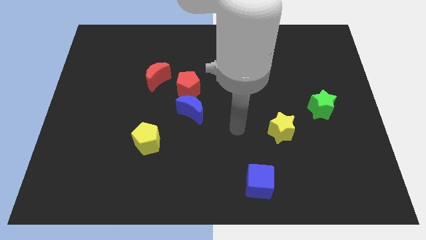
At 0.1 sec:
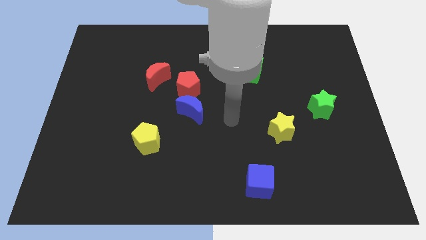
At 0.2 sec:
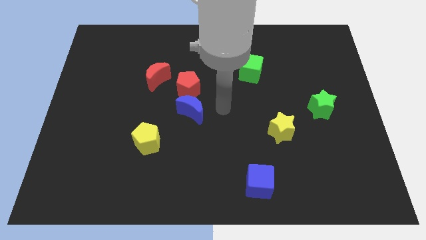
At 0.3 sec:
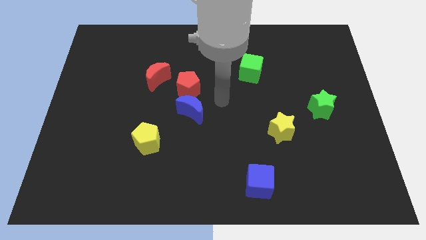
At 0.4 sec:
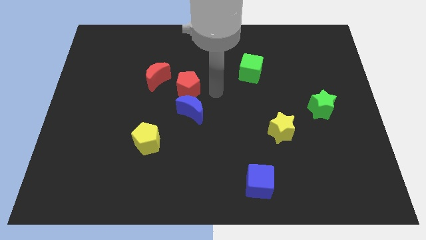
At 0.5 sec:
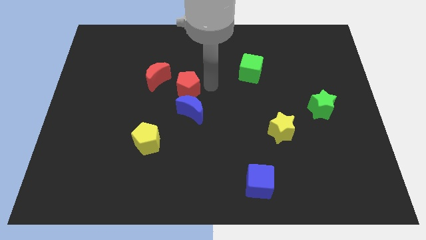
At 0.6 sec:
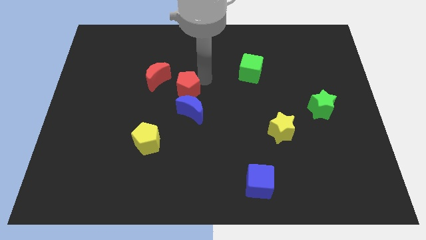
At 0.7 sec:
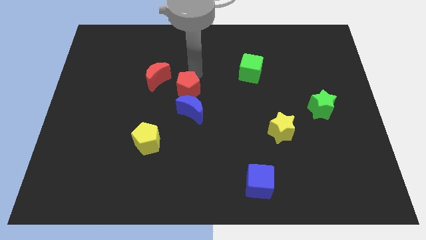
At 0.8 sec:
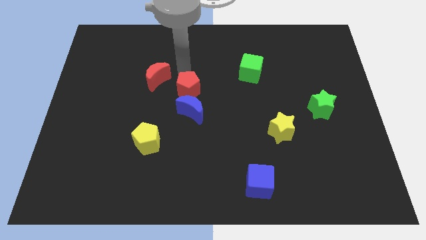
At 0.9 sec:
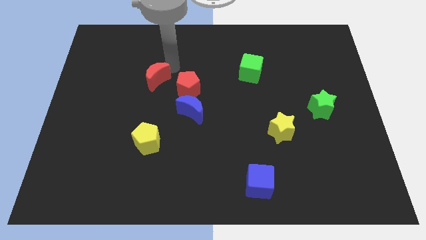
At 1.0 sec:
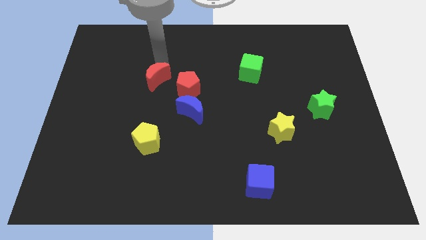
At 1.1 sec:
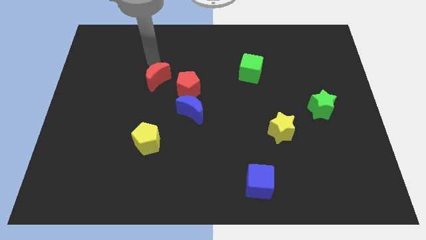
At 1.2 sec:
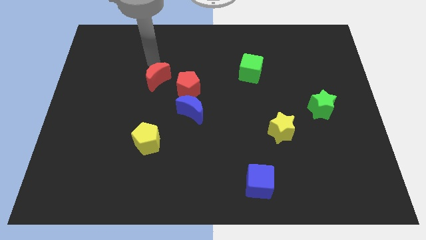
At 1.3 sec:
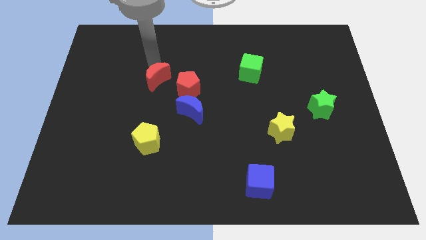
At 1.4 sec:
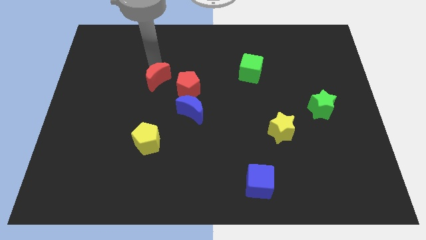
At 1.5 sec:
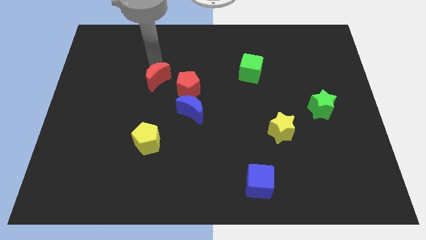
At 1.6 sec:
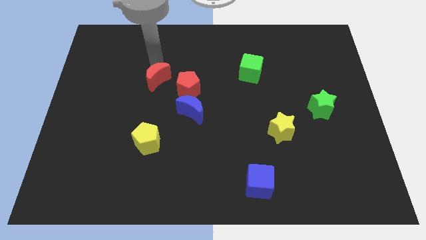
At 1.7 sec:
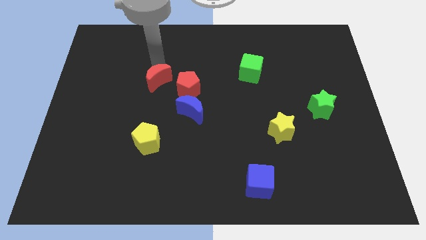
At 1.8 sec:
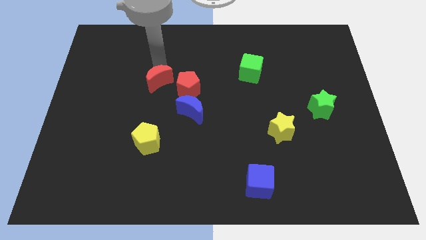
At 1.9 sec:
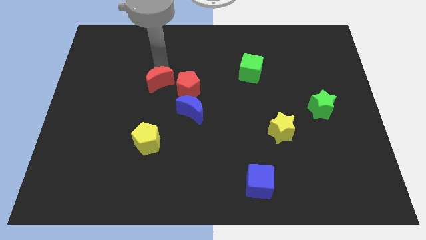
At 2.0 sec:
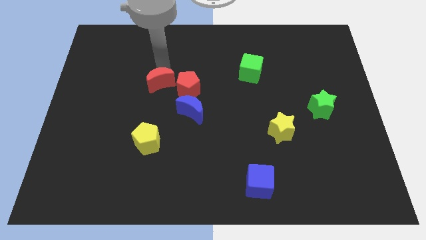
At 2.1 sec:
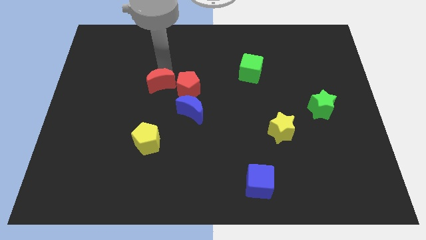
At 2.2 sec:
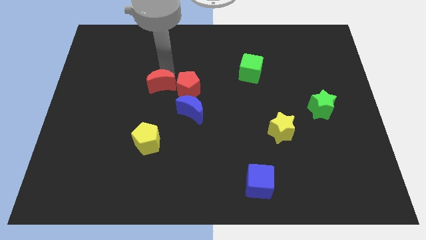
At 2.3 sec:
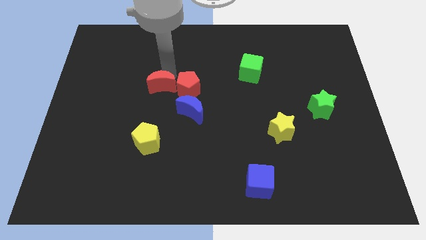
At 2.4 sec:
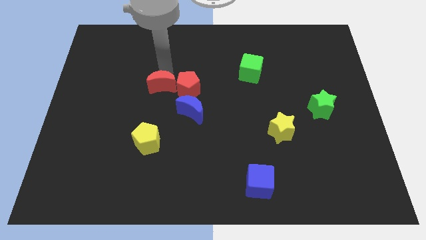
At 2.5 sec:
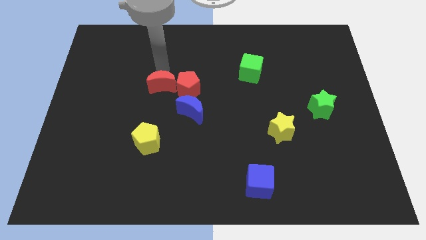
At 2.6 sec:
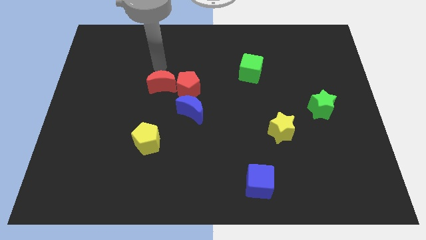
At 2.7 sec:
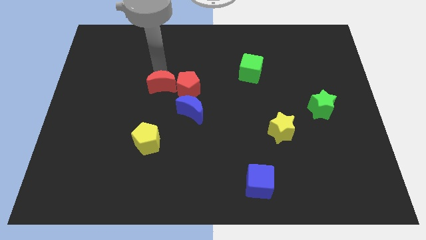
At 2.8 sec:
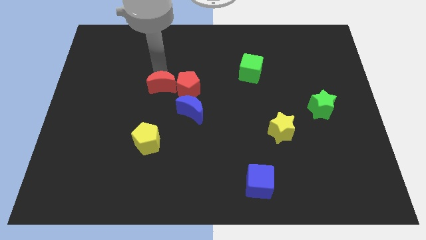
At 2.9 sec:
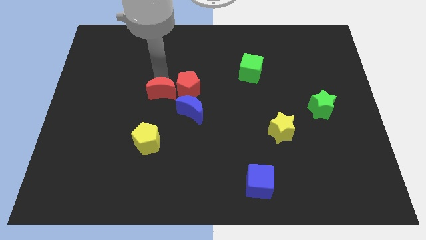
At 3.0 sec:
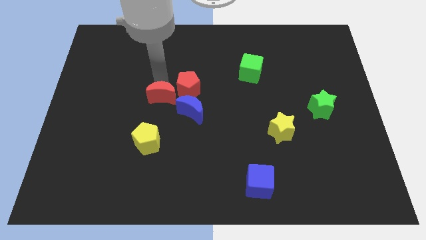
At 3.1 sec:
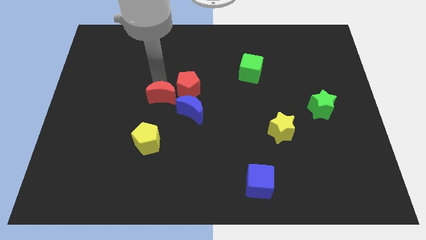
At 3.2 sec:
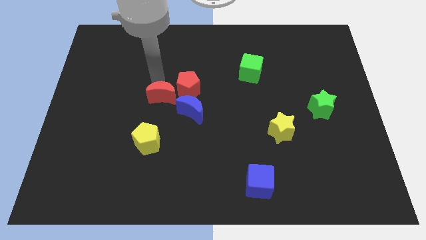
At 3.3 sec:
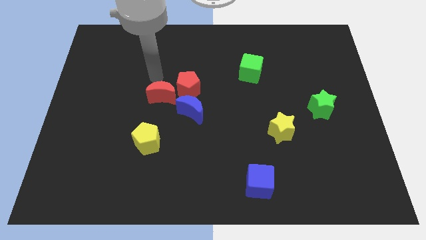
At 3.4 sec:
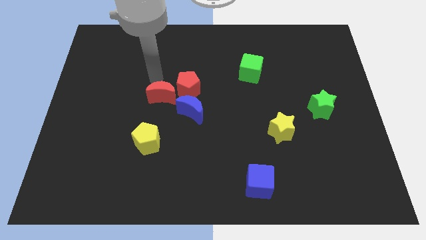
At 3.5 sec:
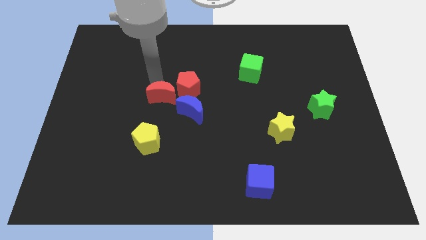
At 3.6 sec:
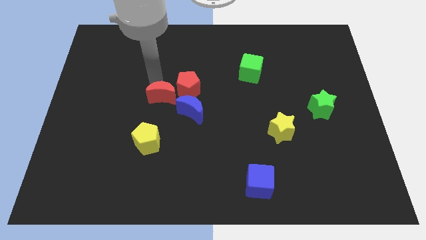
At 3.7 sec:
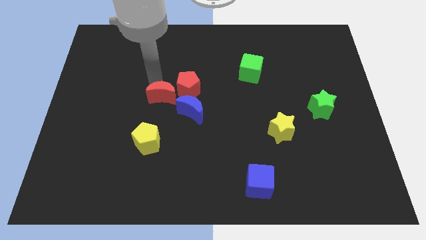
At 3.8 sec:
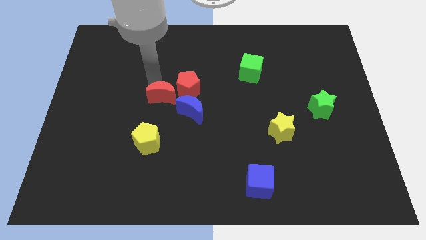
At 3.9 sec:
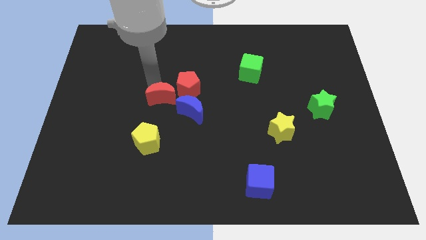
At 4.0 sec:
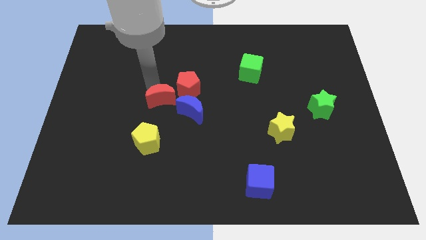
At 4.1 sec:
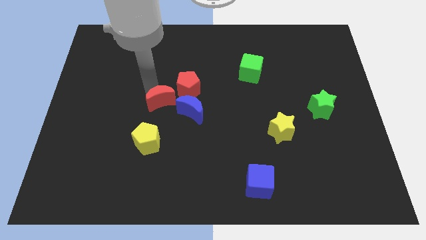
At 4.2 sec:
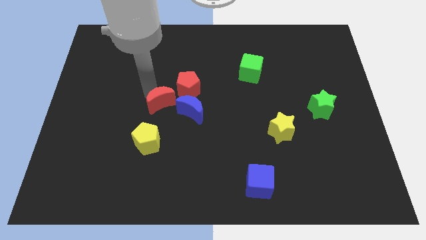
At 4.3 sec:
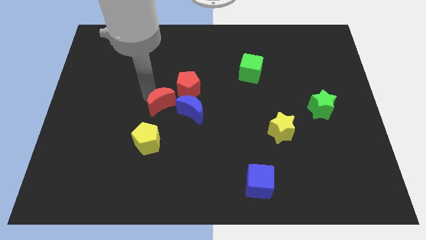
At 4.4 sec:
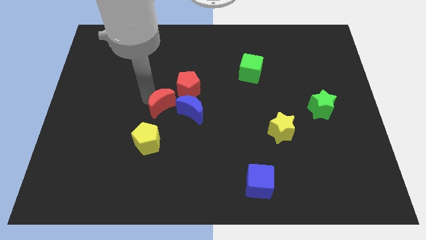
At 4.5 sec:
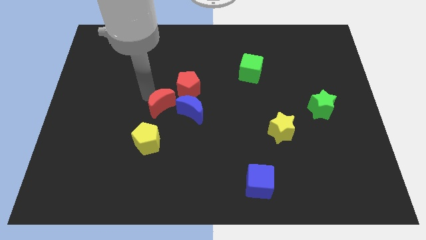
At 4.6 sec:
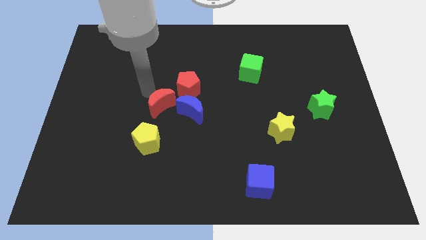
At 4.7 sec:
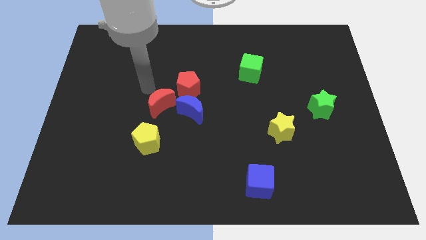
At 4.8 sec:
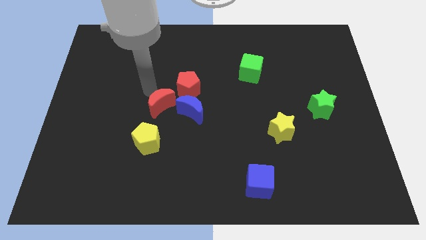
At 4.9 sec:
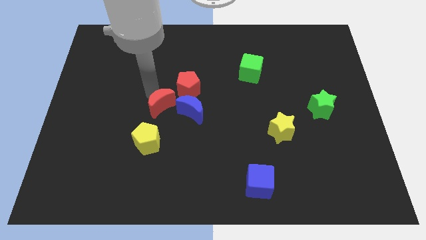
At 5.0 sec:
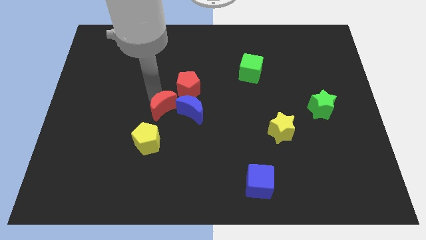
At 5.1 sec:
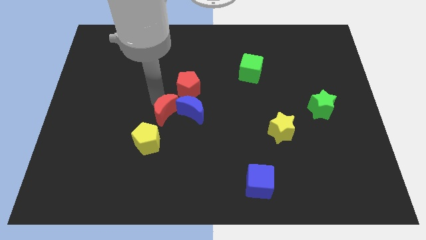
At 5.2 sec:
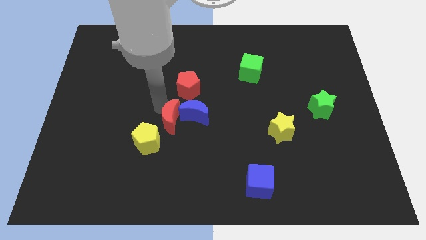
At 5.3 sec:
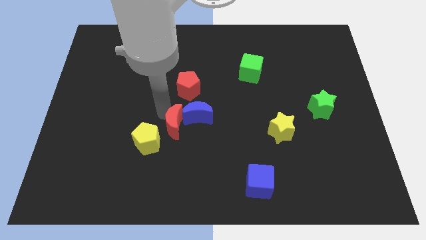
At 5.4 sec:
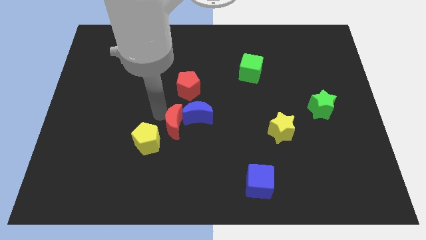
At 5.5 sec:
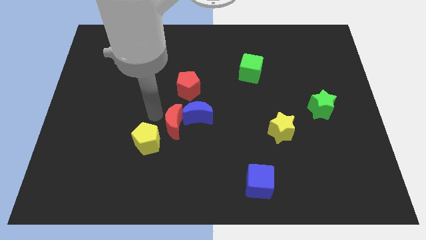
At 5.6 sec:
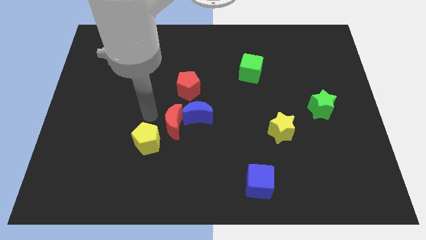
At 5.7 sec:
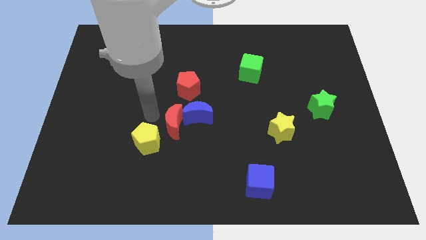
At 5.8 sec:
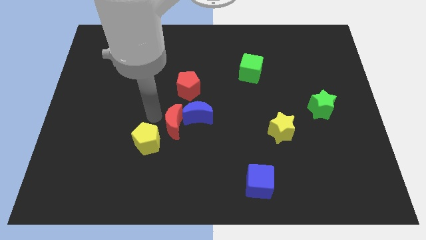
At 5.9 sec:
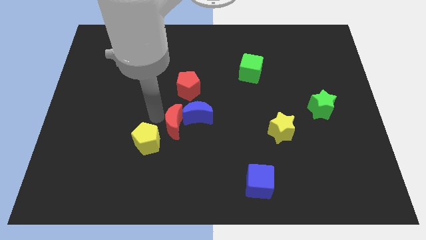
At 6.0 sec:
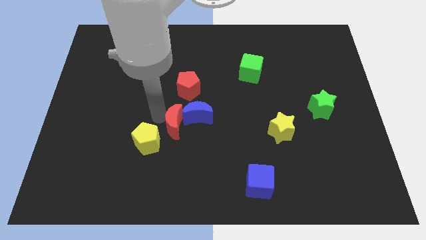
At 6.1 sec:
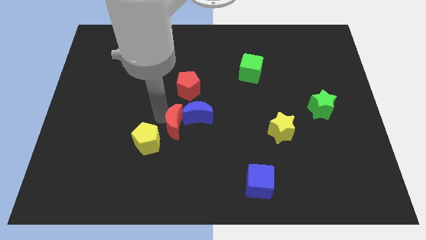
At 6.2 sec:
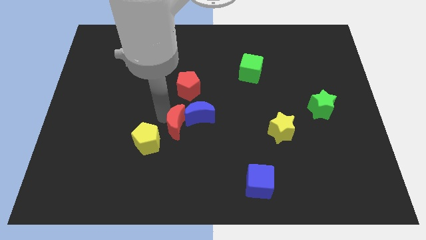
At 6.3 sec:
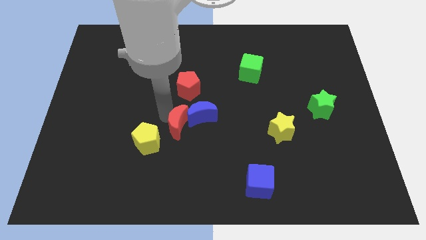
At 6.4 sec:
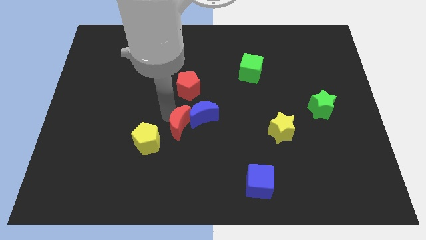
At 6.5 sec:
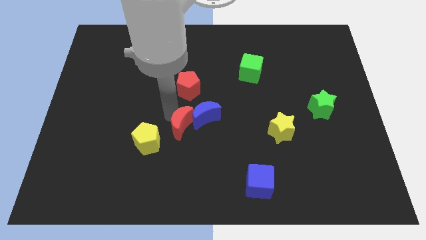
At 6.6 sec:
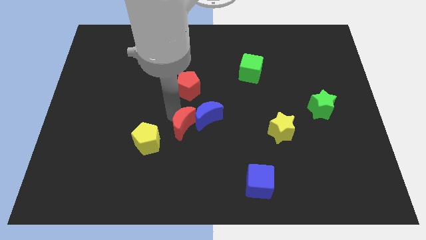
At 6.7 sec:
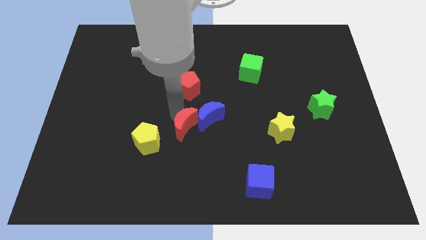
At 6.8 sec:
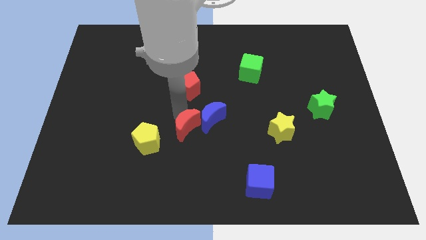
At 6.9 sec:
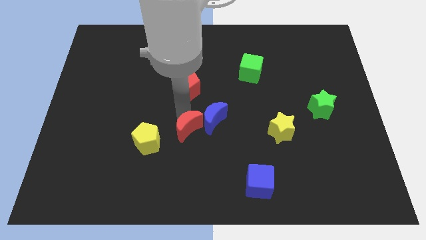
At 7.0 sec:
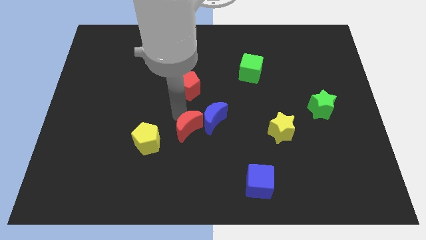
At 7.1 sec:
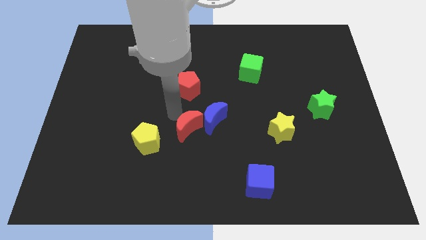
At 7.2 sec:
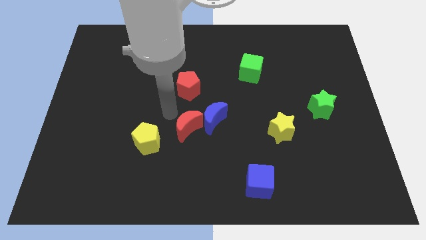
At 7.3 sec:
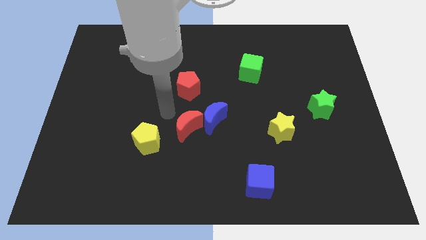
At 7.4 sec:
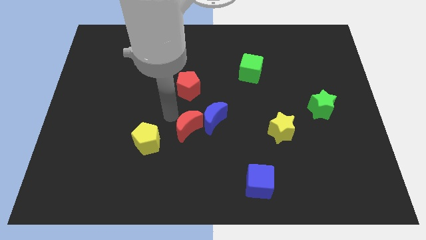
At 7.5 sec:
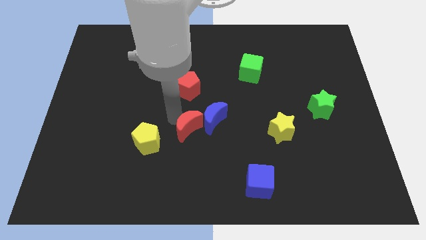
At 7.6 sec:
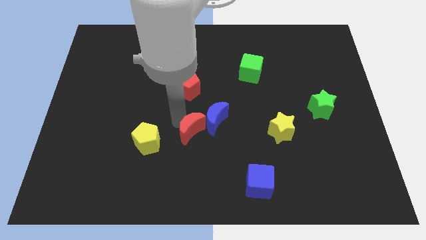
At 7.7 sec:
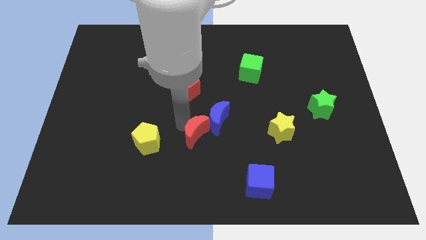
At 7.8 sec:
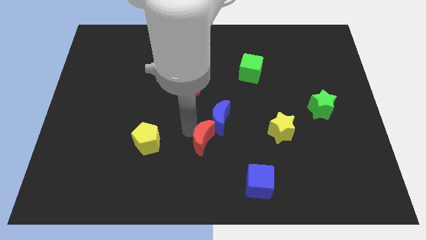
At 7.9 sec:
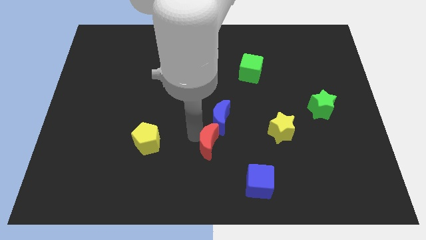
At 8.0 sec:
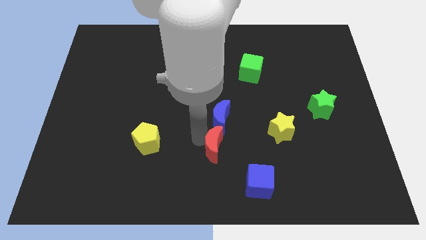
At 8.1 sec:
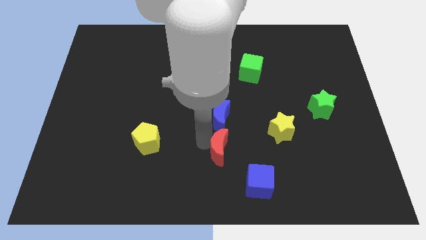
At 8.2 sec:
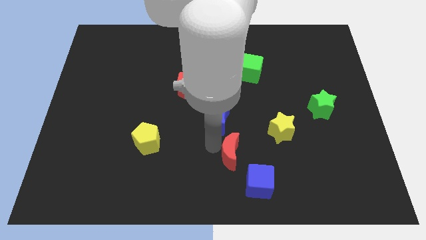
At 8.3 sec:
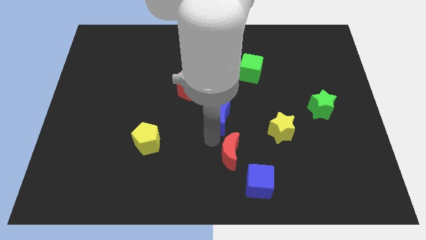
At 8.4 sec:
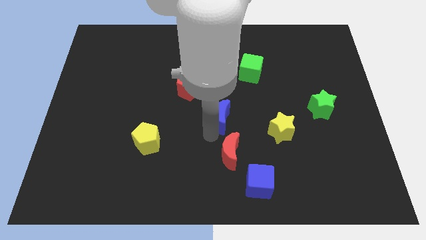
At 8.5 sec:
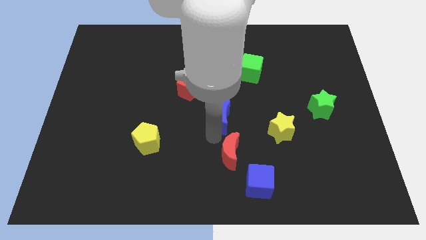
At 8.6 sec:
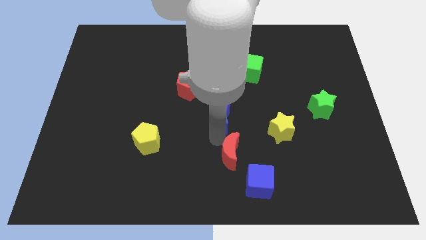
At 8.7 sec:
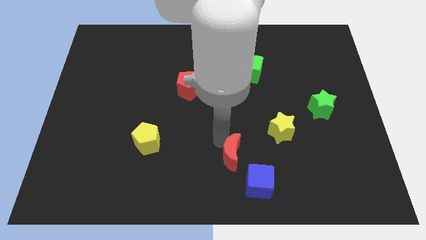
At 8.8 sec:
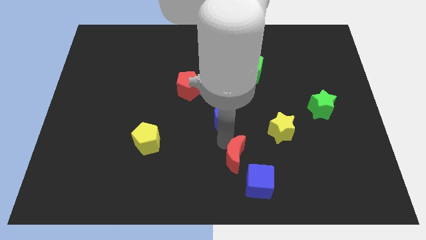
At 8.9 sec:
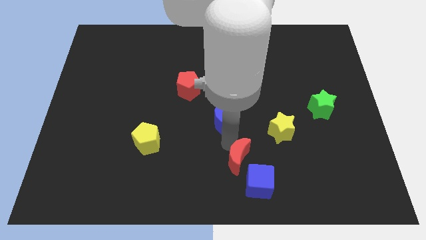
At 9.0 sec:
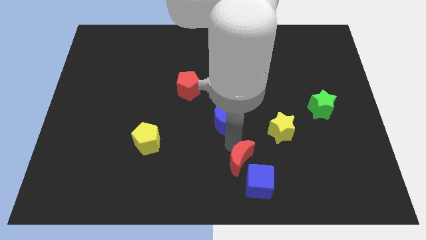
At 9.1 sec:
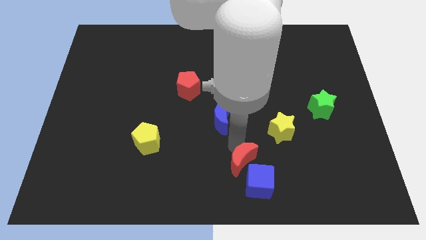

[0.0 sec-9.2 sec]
push the red moon towards the blue cube
